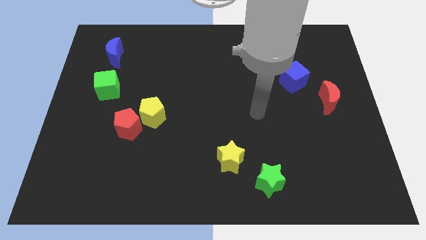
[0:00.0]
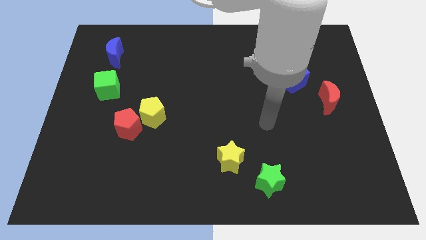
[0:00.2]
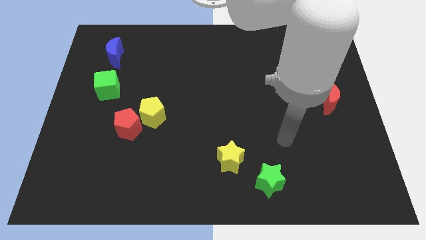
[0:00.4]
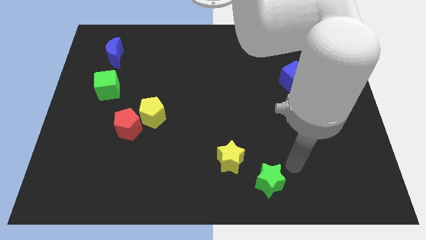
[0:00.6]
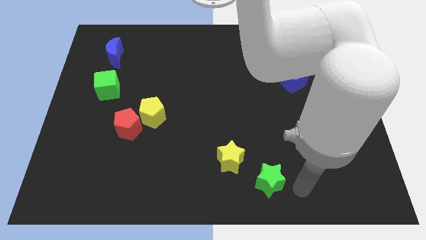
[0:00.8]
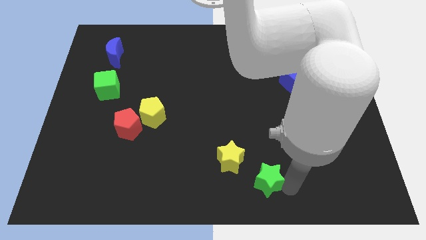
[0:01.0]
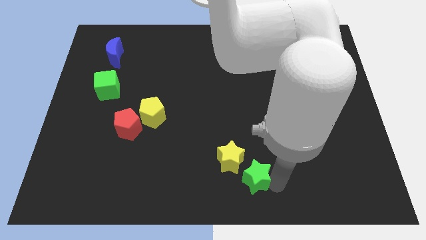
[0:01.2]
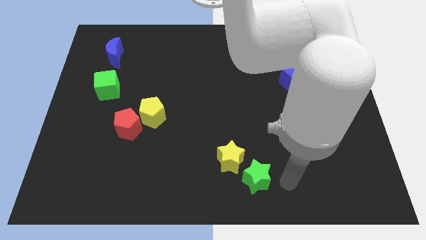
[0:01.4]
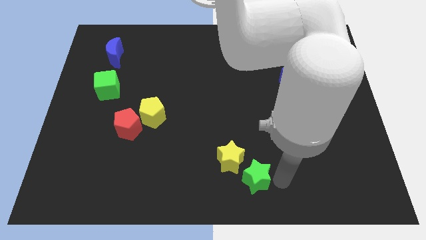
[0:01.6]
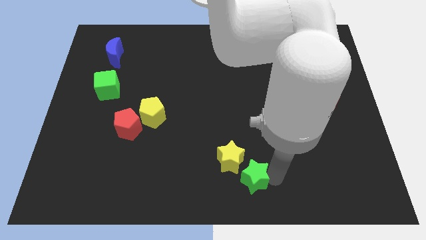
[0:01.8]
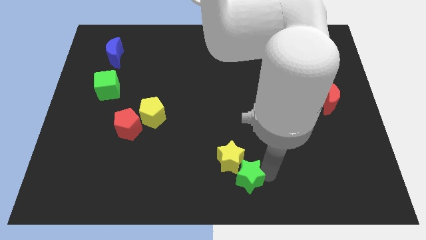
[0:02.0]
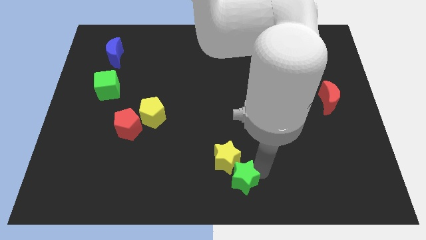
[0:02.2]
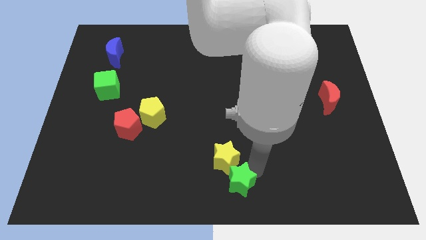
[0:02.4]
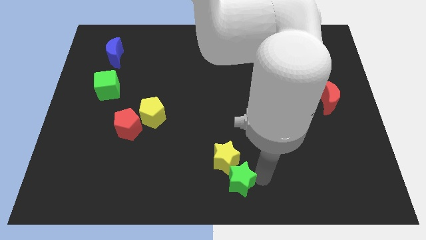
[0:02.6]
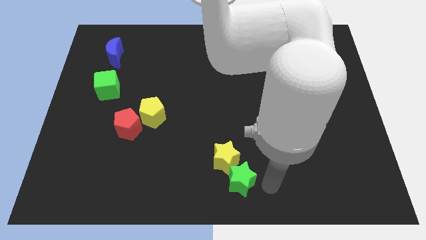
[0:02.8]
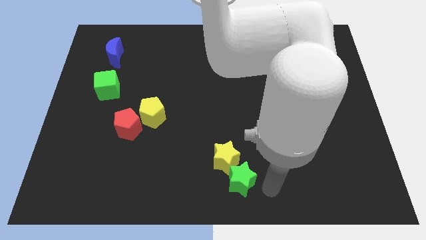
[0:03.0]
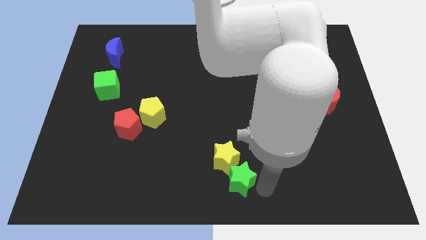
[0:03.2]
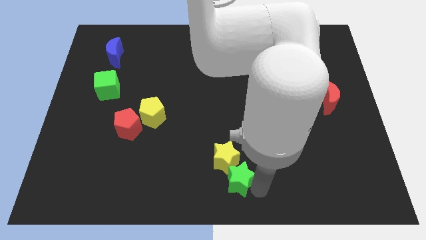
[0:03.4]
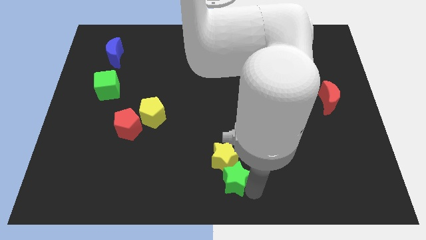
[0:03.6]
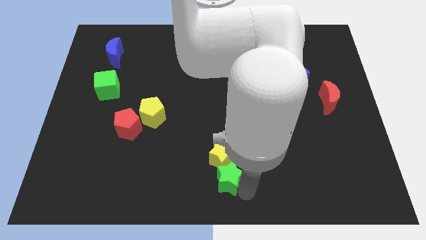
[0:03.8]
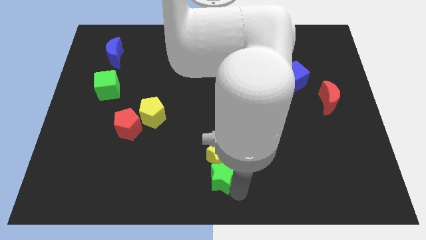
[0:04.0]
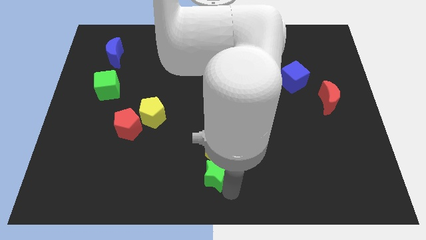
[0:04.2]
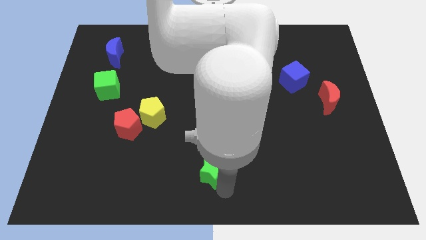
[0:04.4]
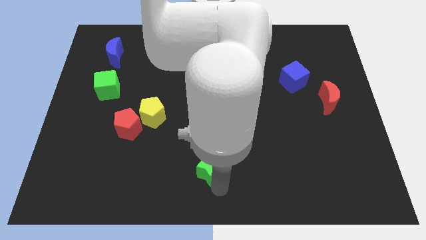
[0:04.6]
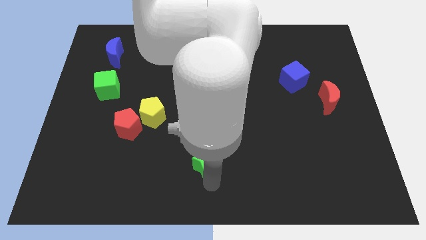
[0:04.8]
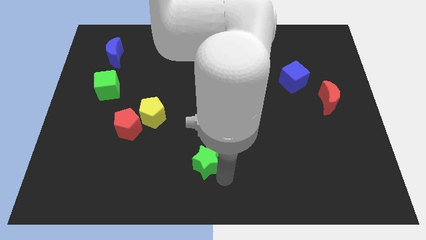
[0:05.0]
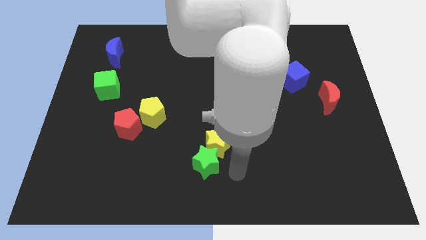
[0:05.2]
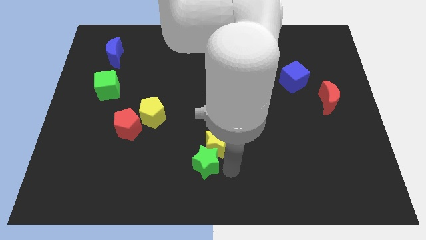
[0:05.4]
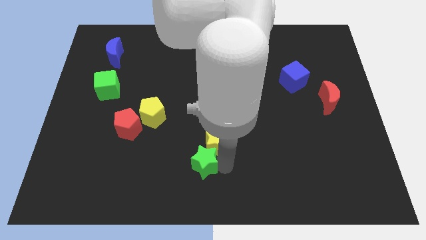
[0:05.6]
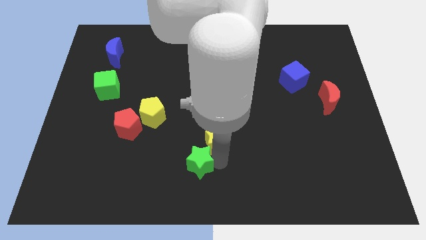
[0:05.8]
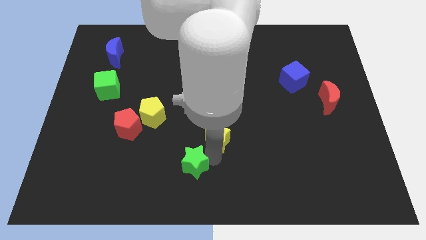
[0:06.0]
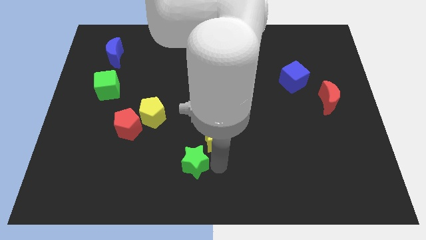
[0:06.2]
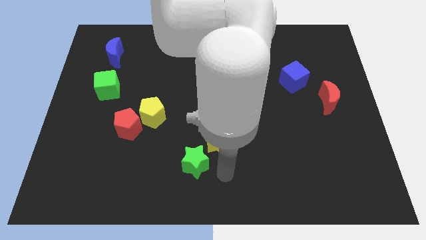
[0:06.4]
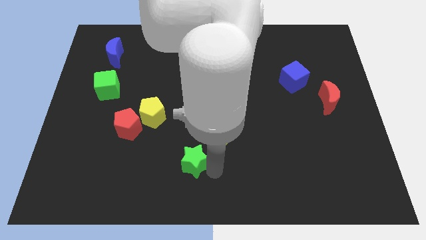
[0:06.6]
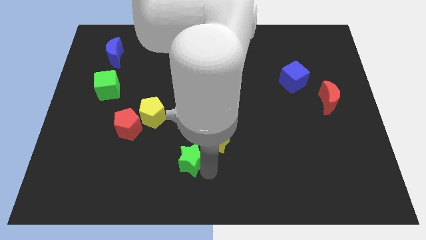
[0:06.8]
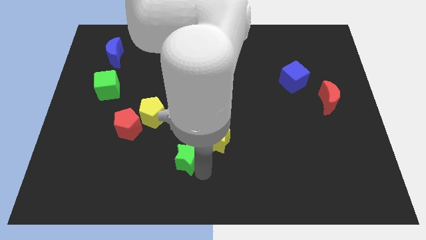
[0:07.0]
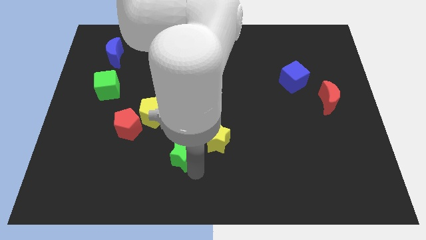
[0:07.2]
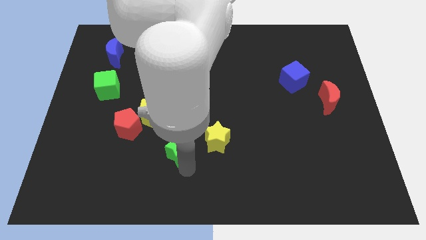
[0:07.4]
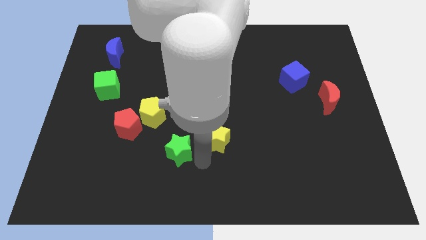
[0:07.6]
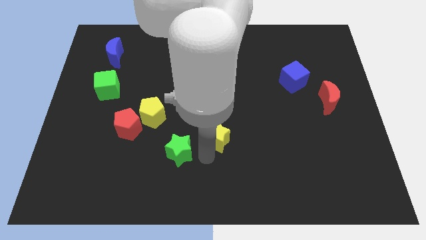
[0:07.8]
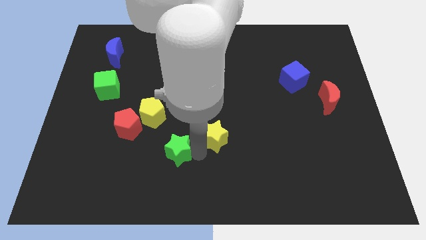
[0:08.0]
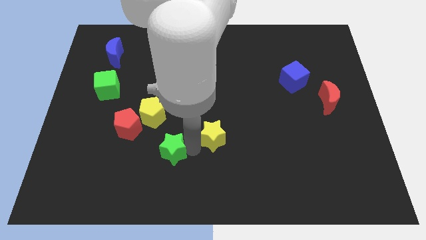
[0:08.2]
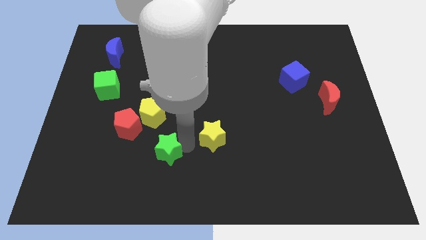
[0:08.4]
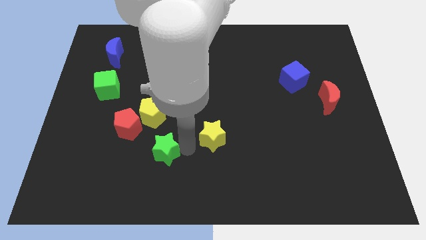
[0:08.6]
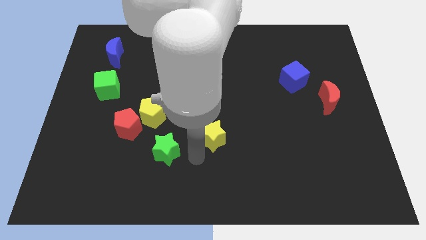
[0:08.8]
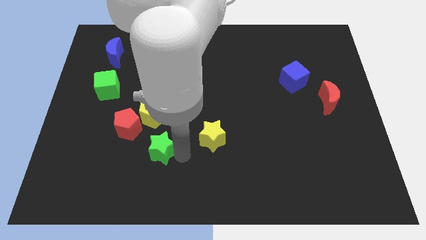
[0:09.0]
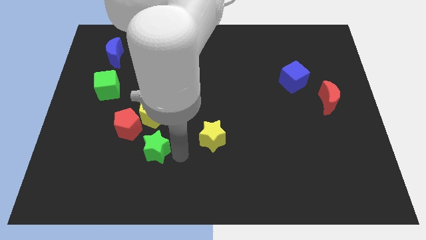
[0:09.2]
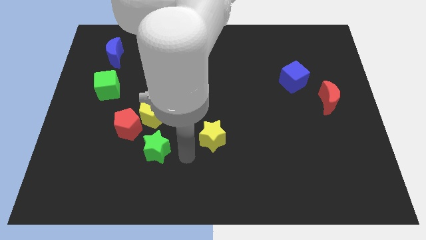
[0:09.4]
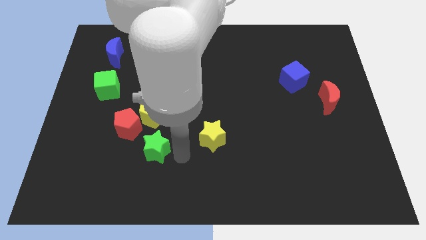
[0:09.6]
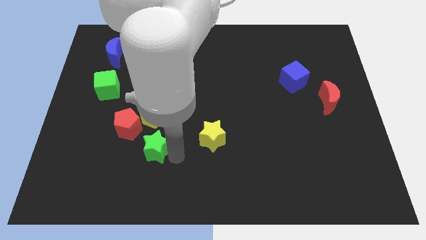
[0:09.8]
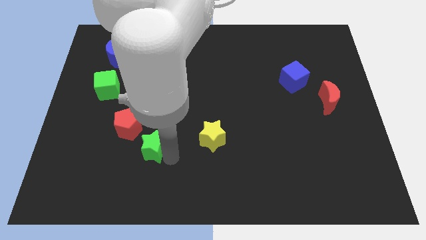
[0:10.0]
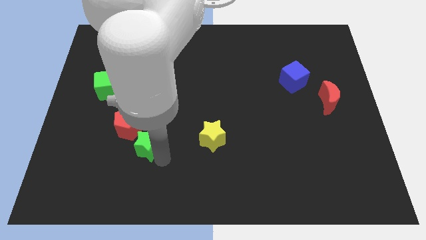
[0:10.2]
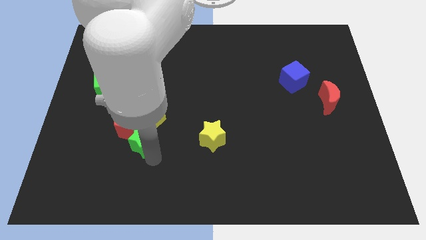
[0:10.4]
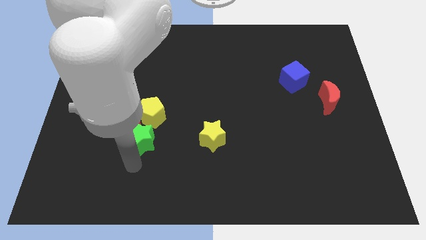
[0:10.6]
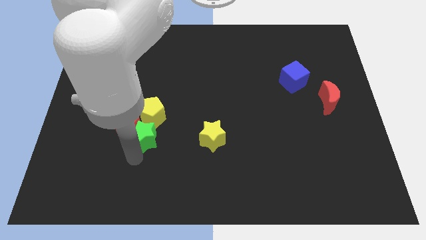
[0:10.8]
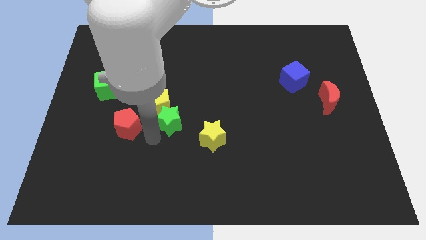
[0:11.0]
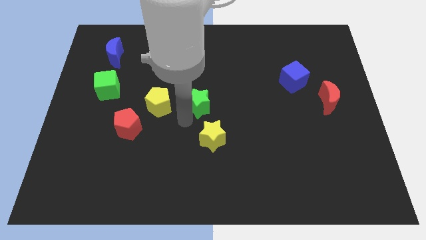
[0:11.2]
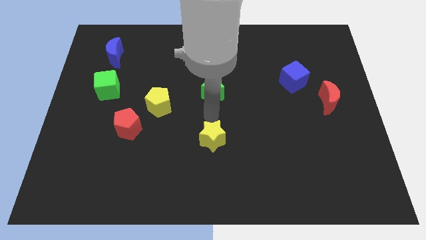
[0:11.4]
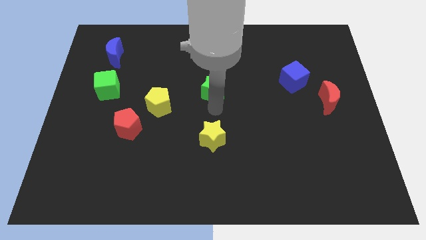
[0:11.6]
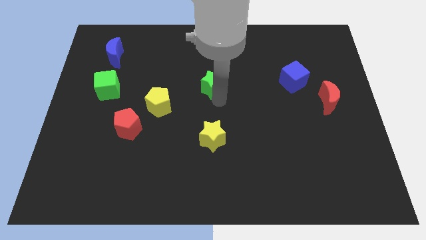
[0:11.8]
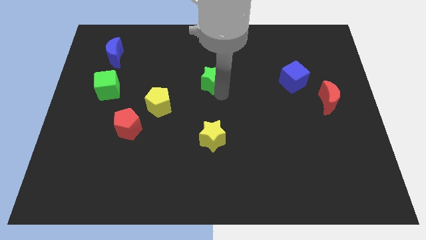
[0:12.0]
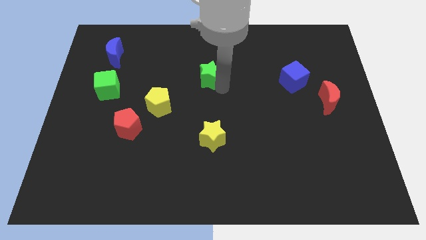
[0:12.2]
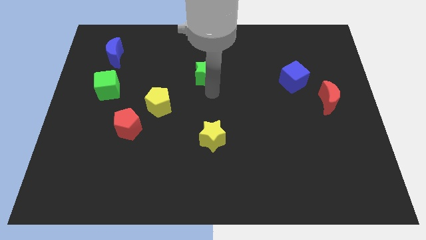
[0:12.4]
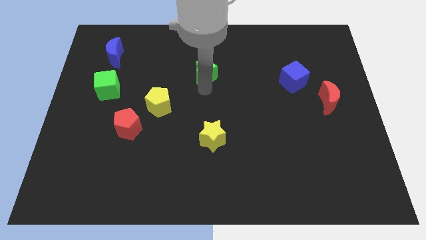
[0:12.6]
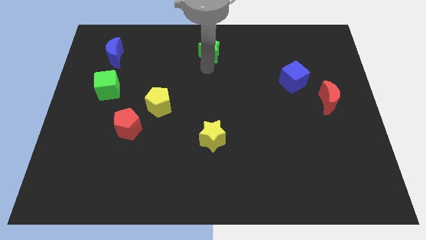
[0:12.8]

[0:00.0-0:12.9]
put the green star to the top
